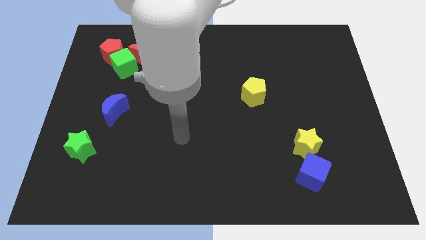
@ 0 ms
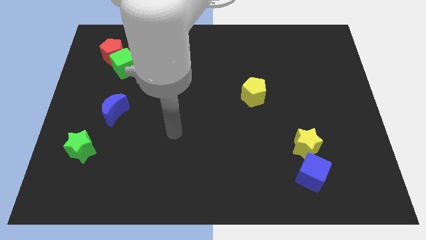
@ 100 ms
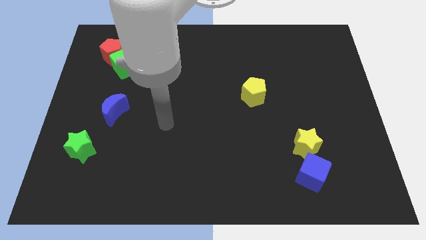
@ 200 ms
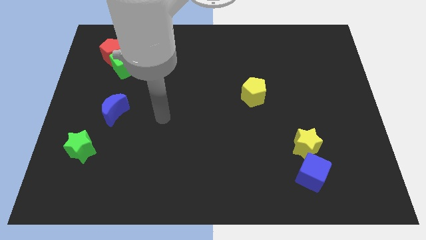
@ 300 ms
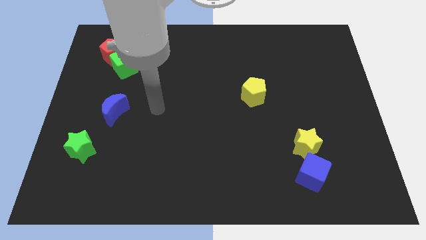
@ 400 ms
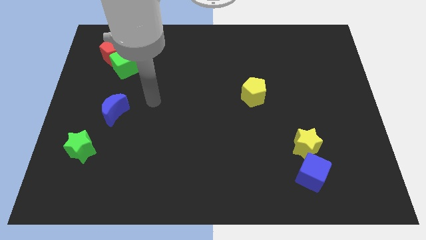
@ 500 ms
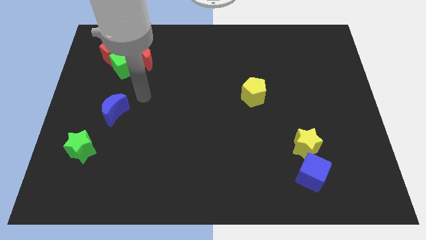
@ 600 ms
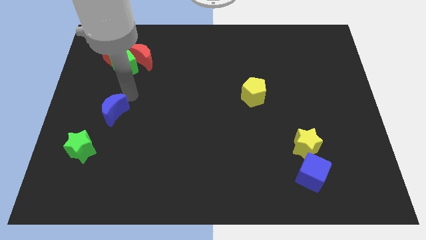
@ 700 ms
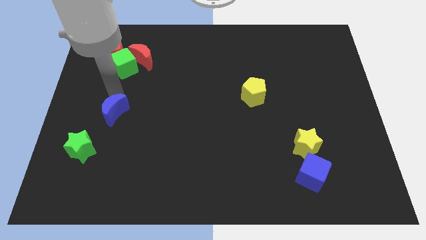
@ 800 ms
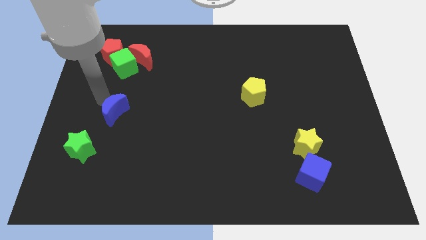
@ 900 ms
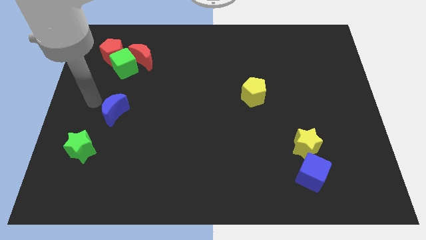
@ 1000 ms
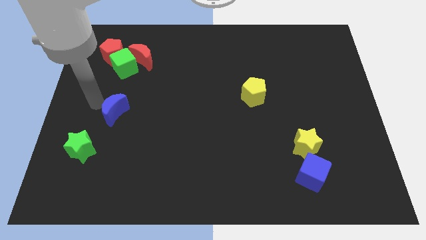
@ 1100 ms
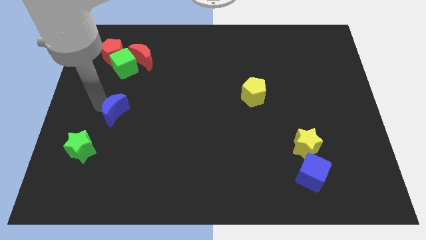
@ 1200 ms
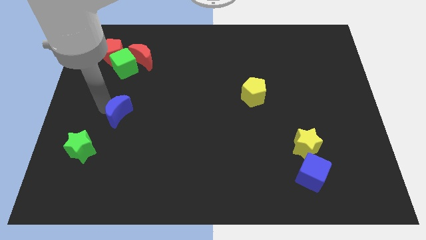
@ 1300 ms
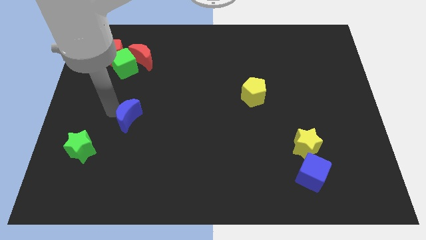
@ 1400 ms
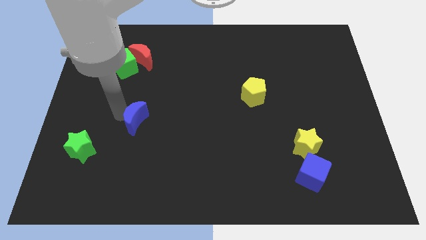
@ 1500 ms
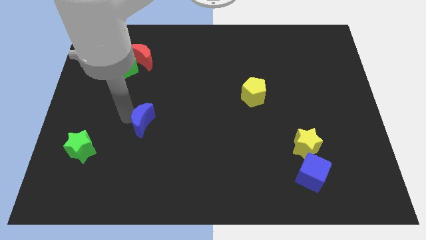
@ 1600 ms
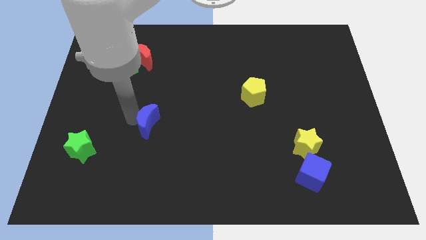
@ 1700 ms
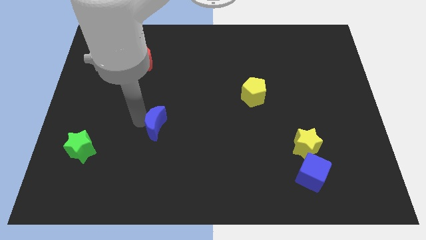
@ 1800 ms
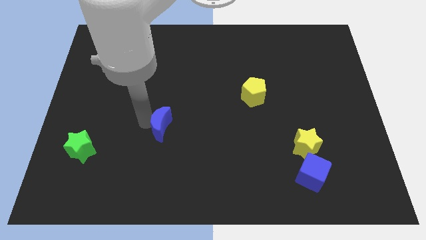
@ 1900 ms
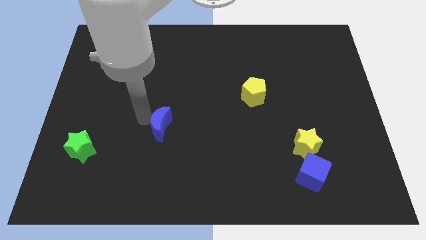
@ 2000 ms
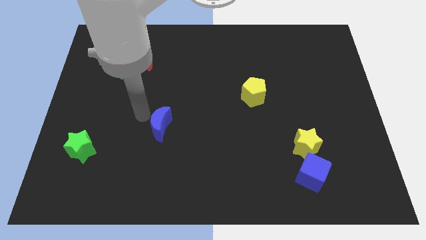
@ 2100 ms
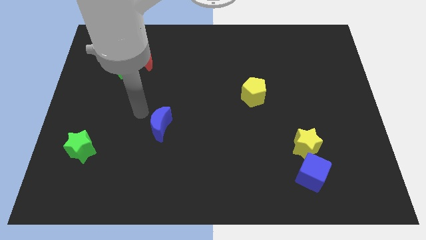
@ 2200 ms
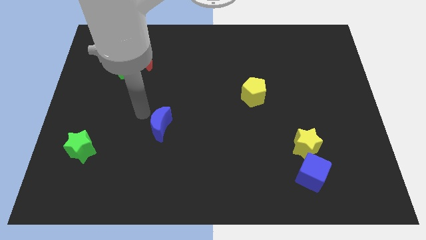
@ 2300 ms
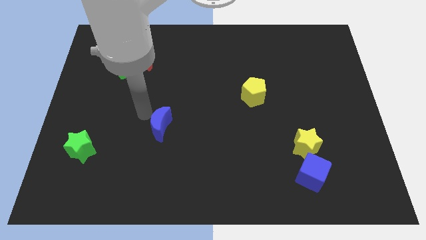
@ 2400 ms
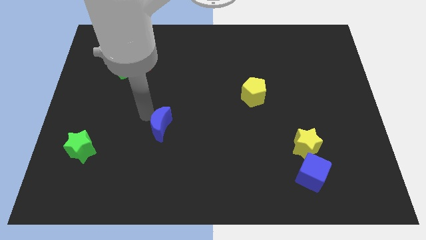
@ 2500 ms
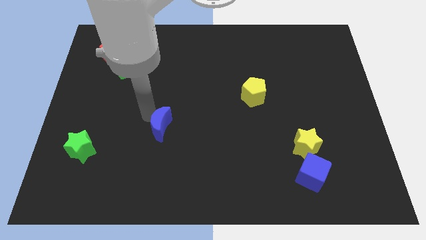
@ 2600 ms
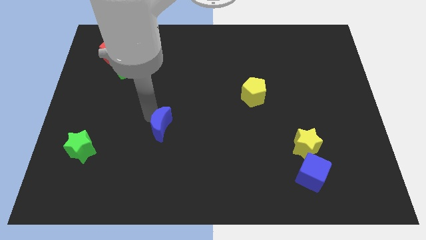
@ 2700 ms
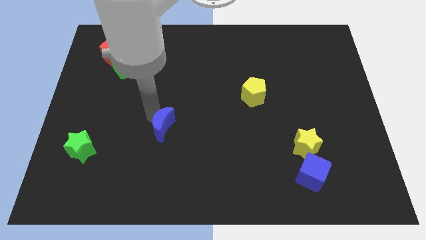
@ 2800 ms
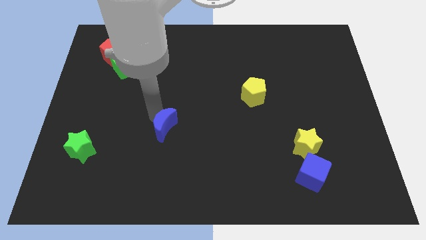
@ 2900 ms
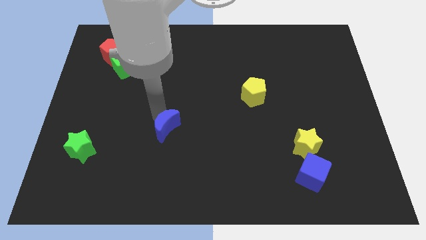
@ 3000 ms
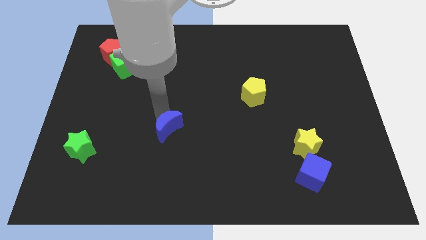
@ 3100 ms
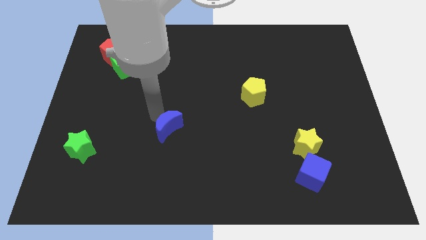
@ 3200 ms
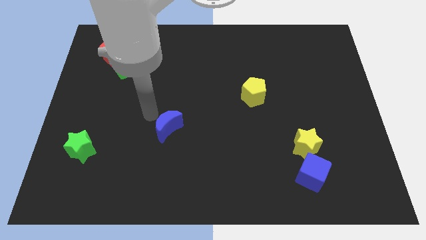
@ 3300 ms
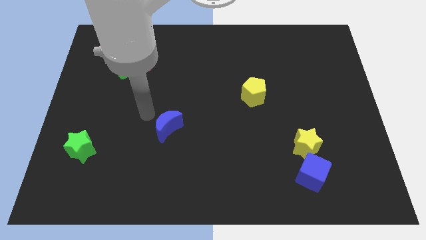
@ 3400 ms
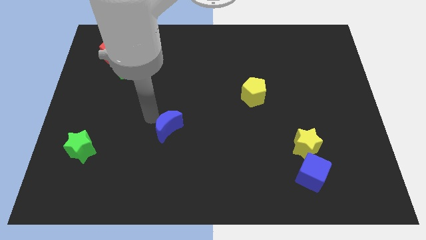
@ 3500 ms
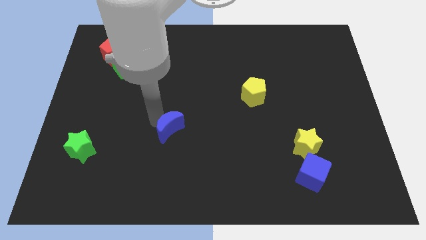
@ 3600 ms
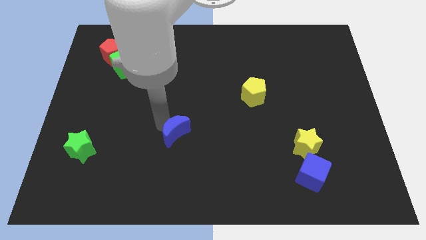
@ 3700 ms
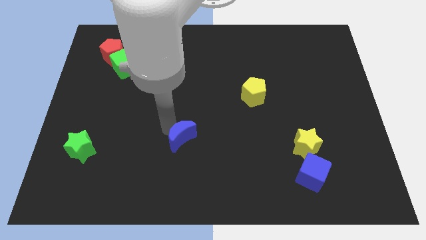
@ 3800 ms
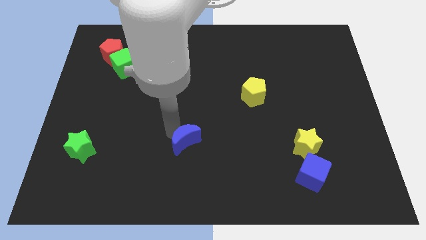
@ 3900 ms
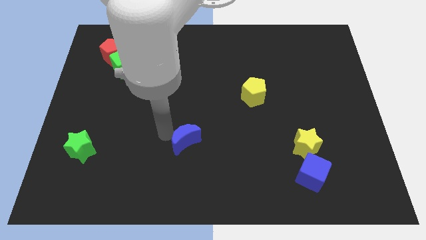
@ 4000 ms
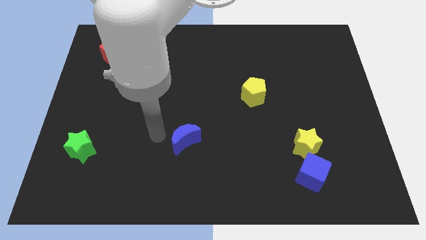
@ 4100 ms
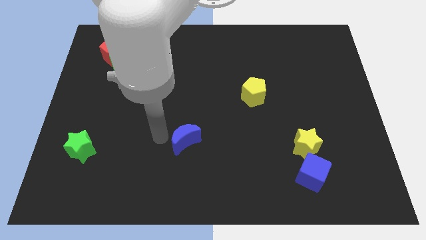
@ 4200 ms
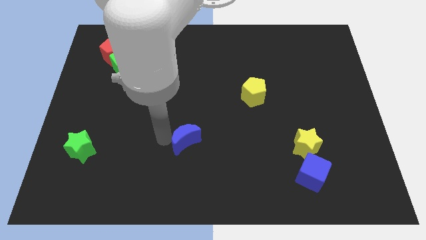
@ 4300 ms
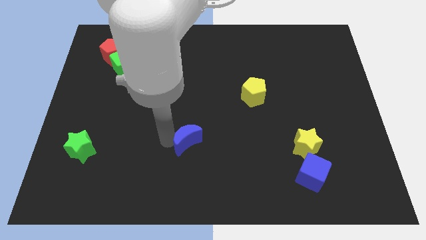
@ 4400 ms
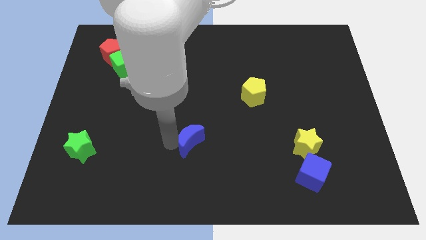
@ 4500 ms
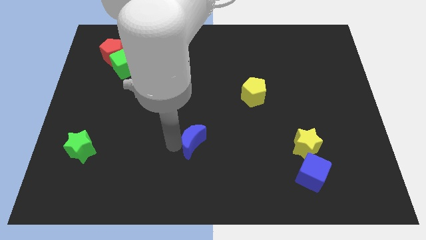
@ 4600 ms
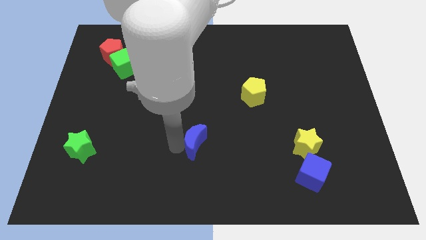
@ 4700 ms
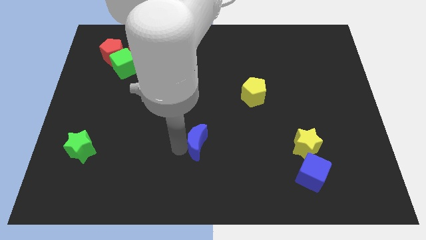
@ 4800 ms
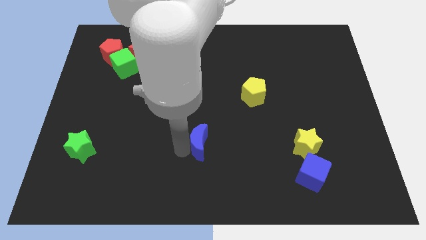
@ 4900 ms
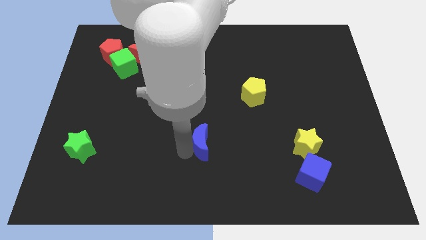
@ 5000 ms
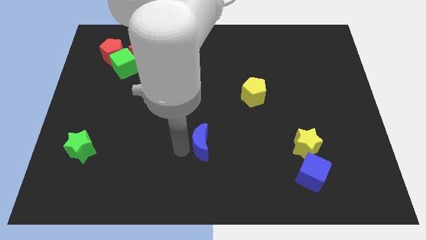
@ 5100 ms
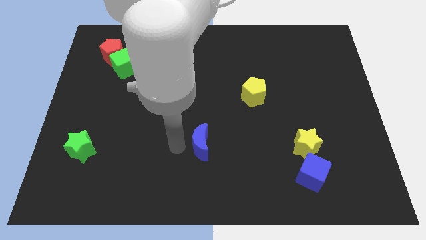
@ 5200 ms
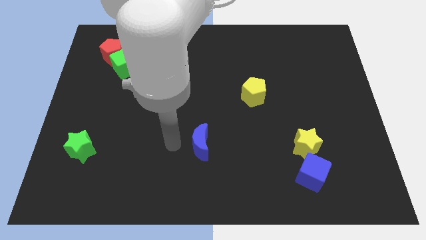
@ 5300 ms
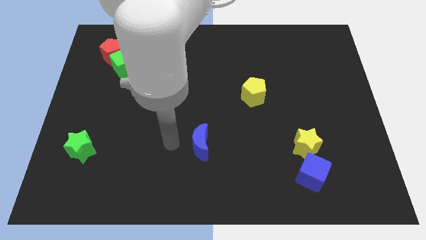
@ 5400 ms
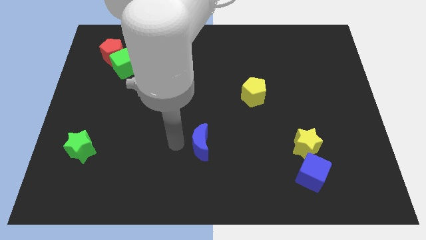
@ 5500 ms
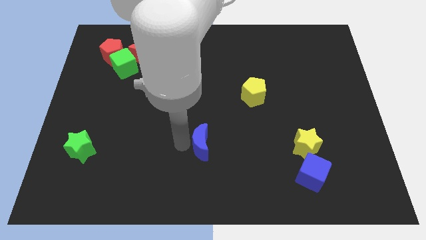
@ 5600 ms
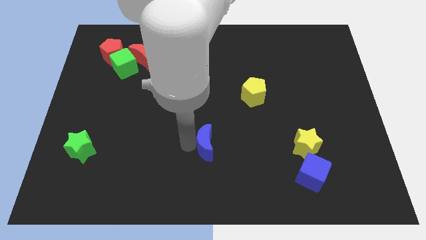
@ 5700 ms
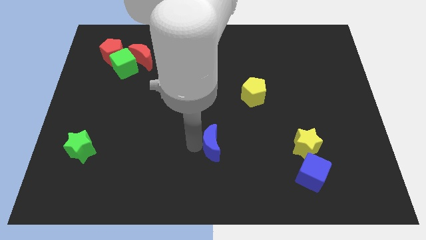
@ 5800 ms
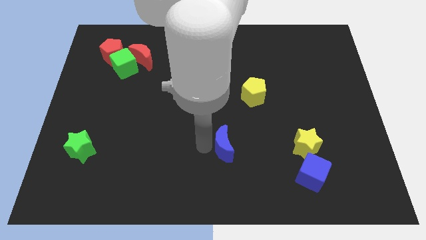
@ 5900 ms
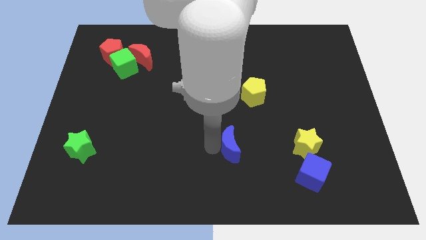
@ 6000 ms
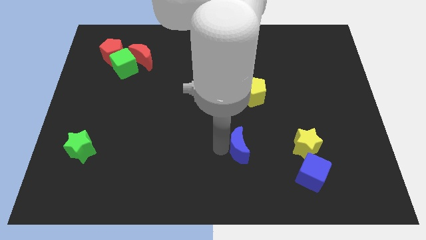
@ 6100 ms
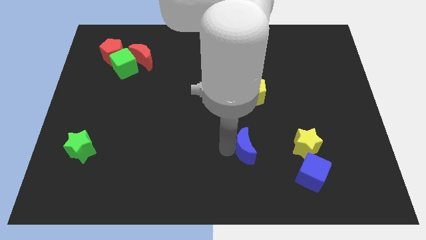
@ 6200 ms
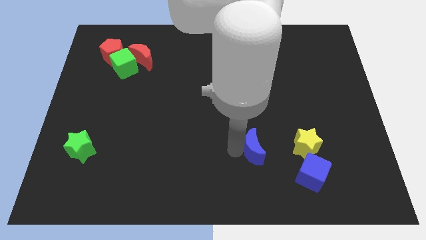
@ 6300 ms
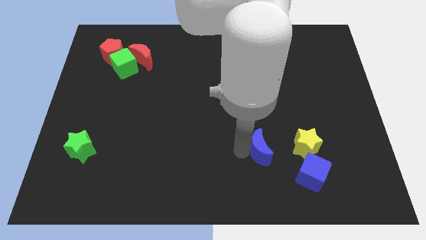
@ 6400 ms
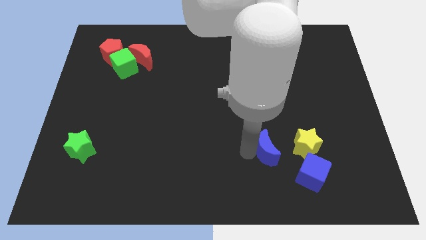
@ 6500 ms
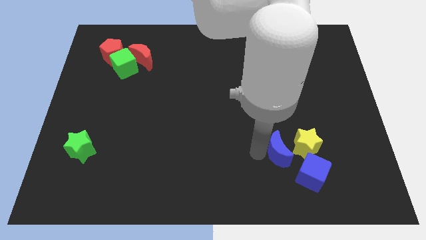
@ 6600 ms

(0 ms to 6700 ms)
put the blue moon to the yellow star

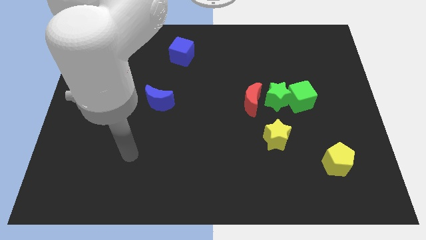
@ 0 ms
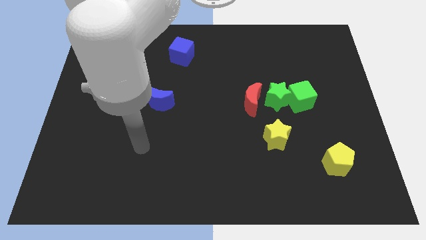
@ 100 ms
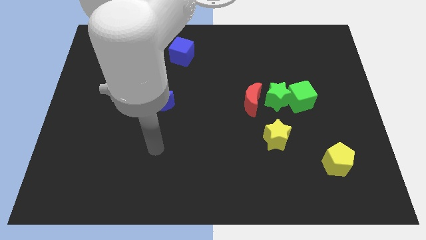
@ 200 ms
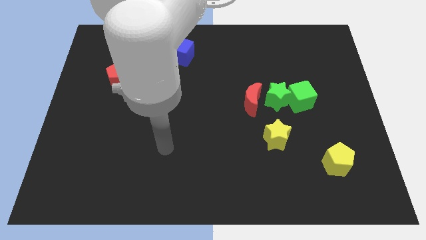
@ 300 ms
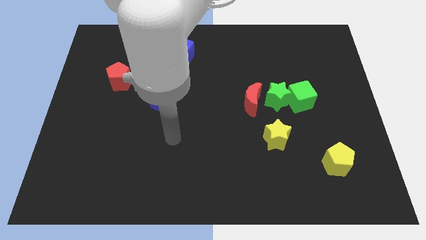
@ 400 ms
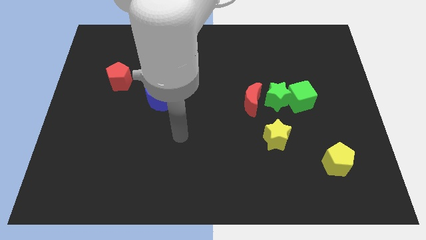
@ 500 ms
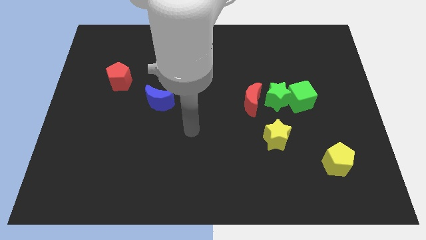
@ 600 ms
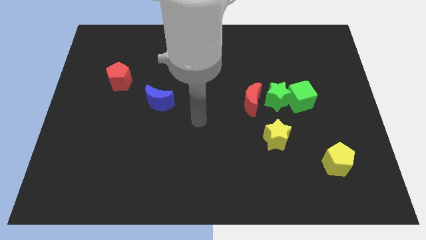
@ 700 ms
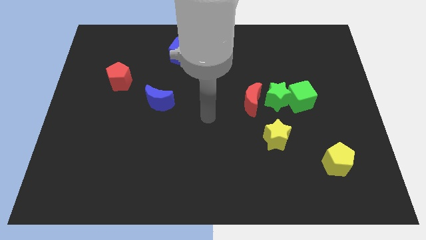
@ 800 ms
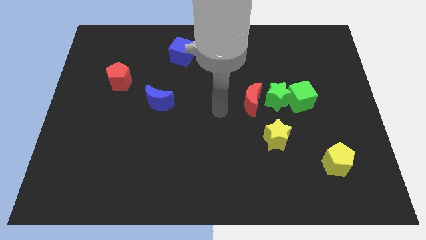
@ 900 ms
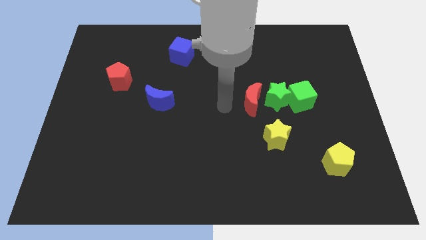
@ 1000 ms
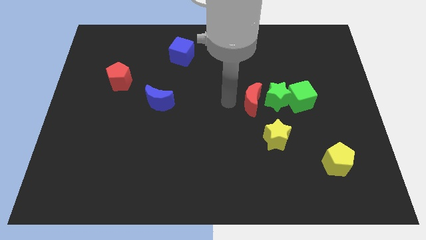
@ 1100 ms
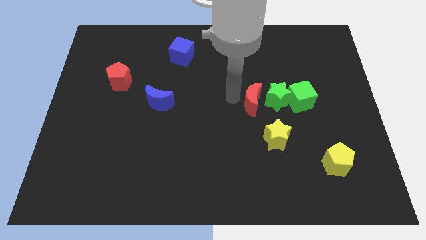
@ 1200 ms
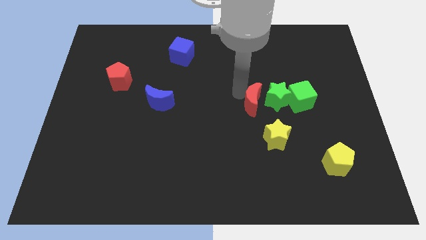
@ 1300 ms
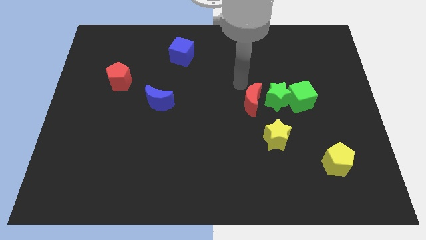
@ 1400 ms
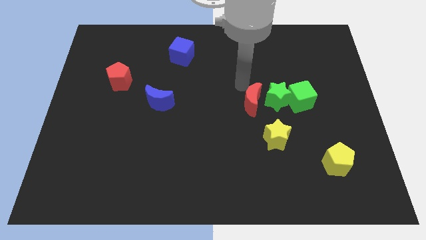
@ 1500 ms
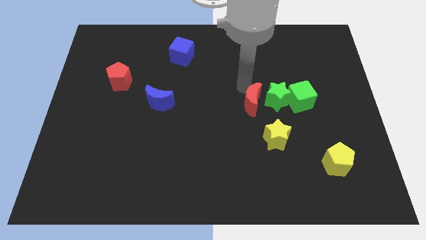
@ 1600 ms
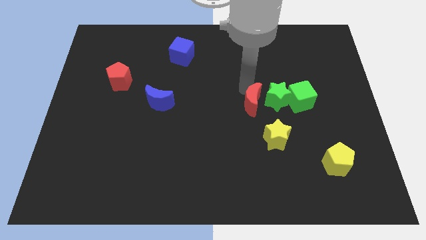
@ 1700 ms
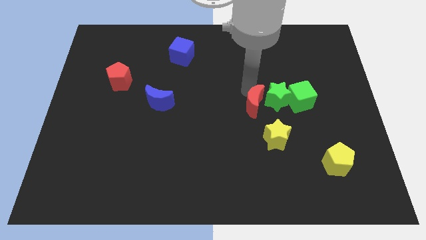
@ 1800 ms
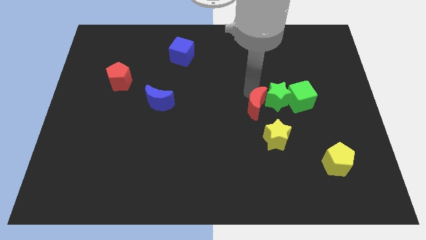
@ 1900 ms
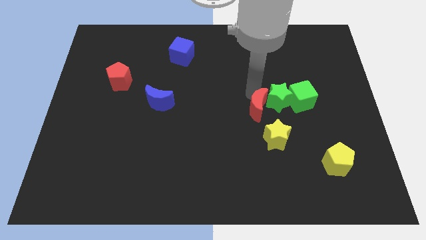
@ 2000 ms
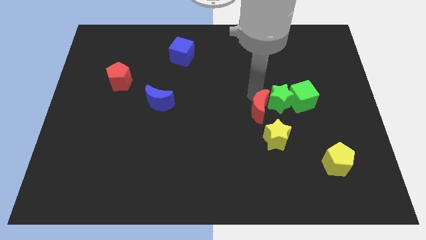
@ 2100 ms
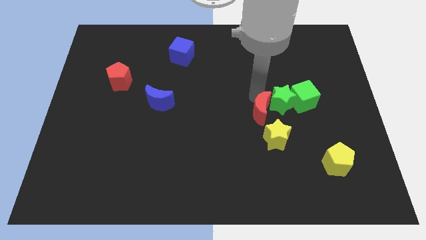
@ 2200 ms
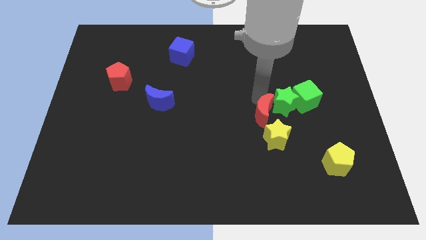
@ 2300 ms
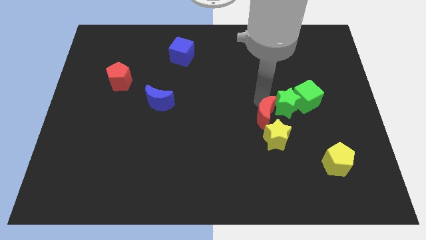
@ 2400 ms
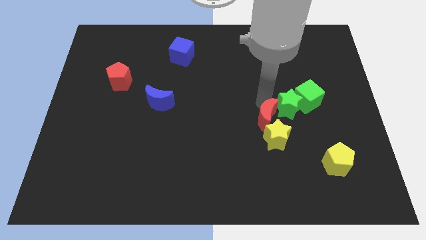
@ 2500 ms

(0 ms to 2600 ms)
push the red moon towards the yellow star
